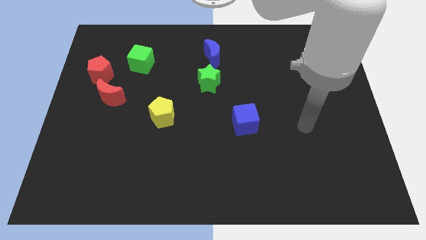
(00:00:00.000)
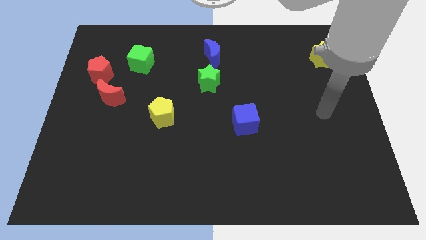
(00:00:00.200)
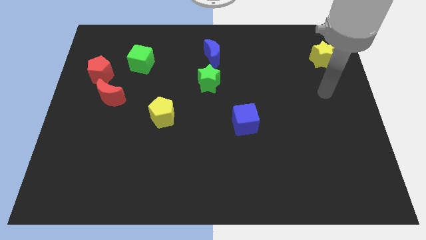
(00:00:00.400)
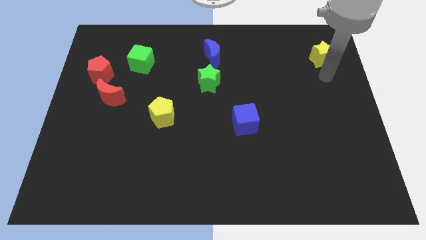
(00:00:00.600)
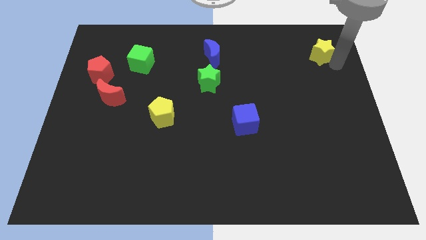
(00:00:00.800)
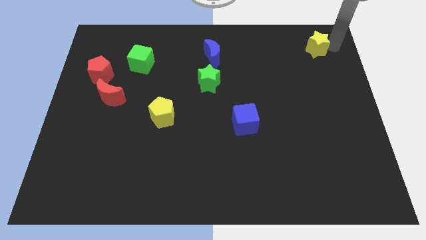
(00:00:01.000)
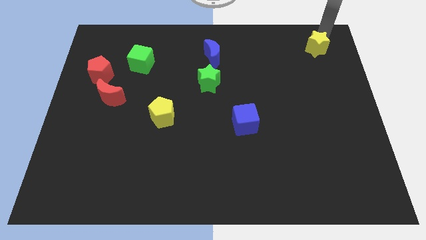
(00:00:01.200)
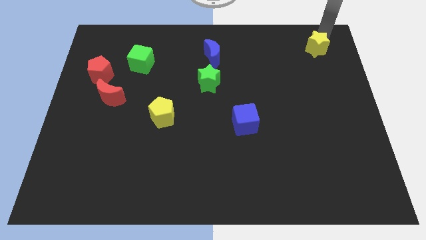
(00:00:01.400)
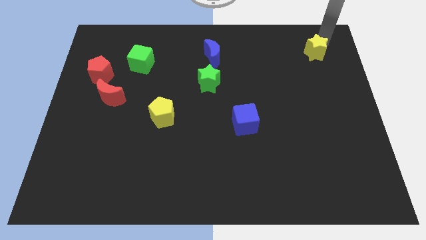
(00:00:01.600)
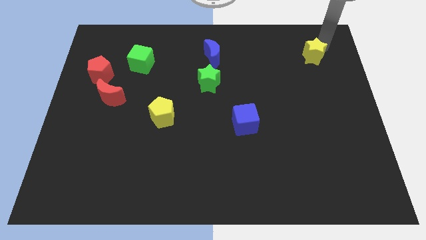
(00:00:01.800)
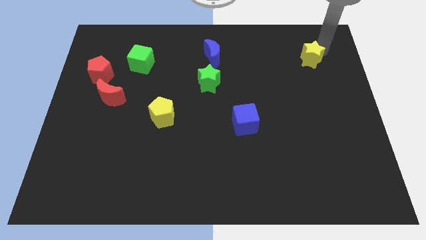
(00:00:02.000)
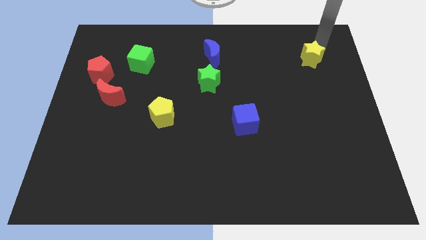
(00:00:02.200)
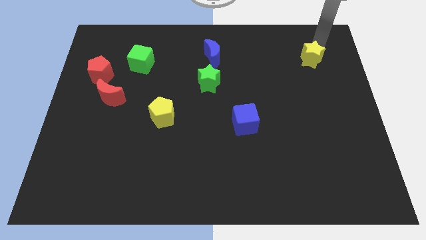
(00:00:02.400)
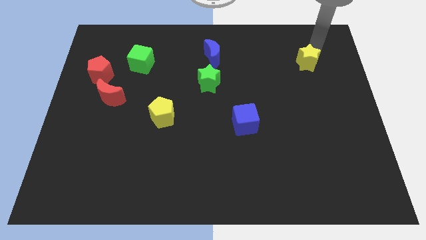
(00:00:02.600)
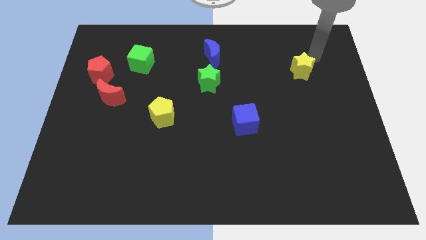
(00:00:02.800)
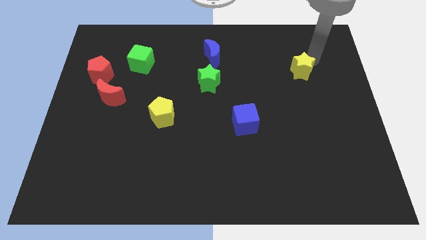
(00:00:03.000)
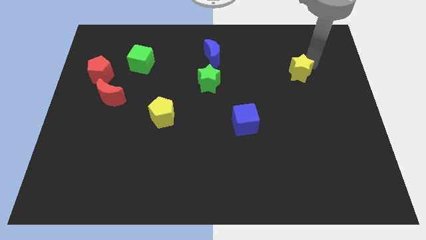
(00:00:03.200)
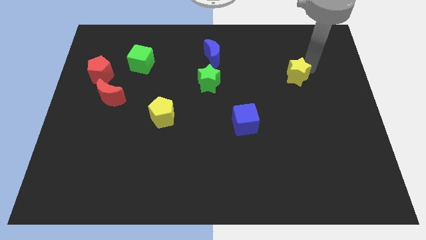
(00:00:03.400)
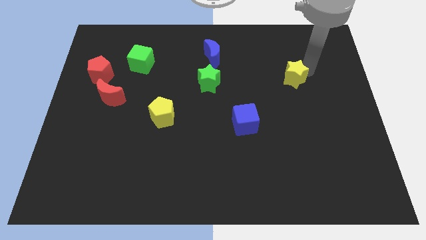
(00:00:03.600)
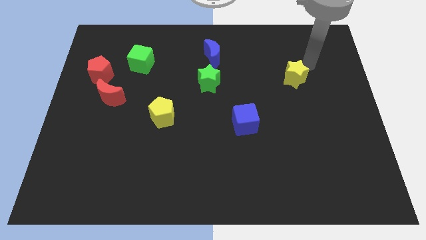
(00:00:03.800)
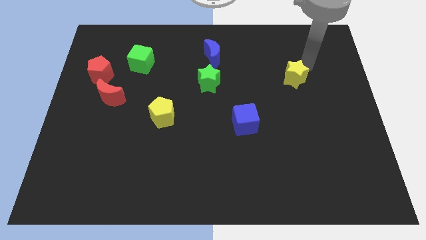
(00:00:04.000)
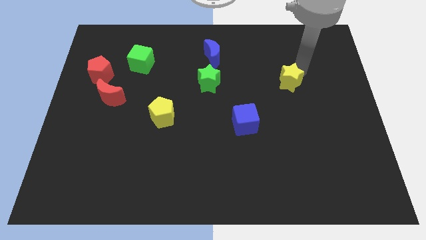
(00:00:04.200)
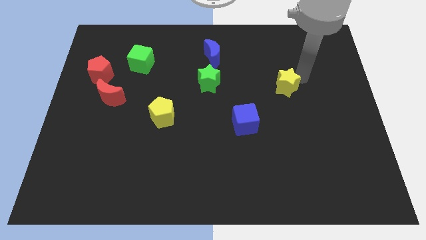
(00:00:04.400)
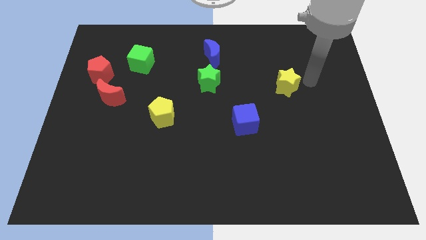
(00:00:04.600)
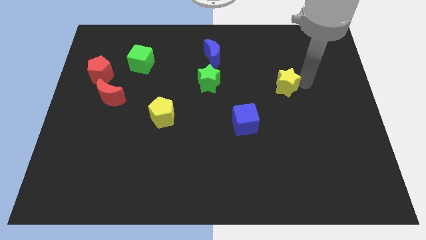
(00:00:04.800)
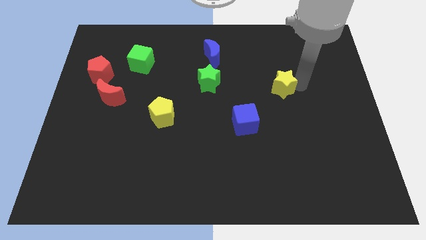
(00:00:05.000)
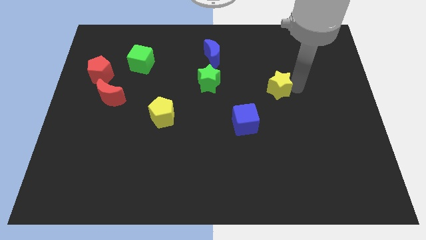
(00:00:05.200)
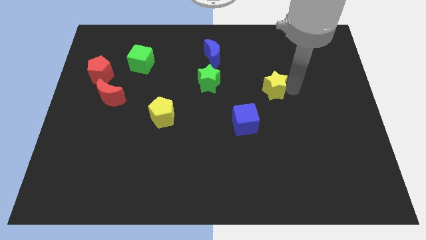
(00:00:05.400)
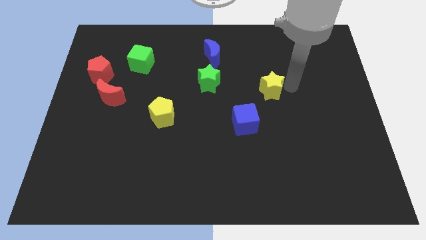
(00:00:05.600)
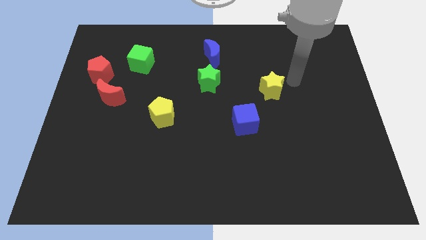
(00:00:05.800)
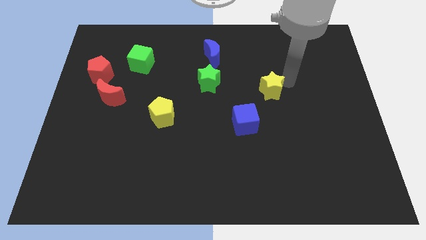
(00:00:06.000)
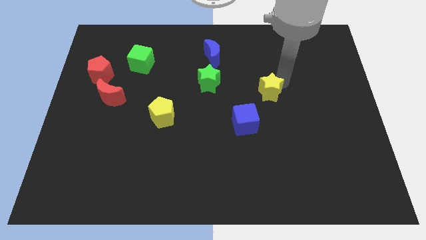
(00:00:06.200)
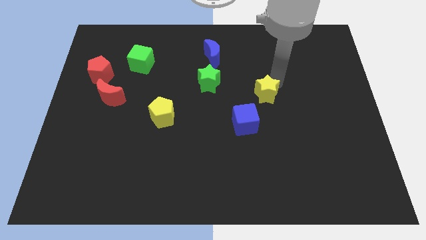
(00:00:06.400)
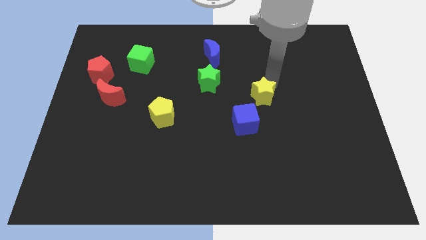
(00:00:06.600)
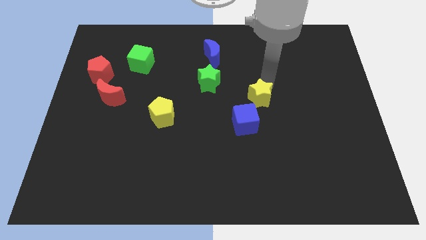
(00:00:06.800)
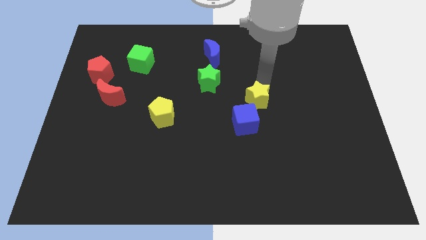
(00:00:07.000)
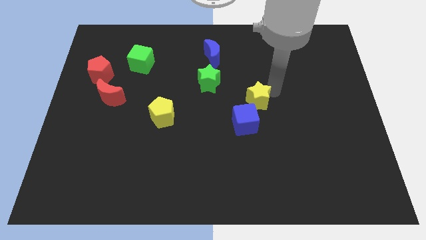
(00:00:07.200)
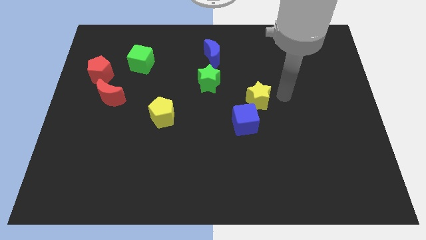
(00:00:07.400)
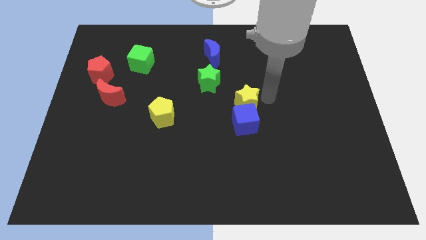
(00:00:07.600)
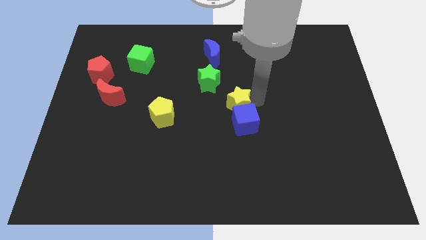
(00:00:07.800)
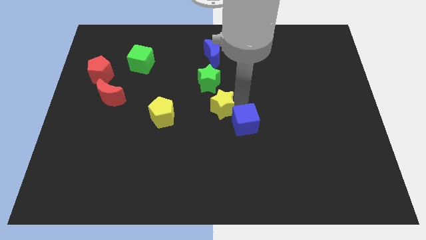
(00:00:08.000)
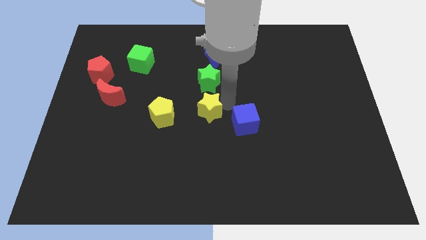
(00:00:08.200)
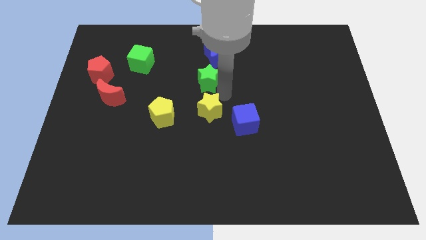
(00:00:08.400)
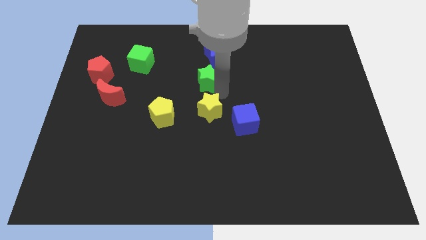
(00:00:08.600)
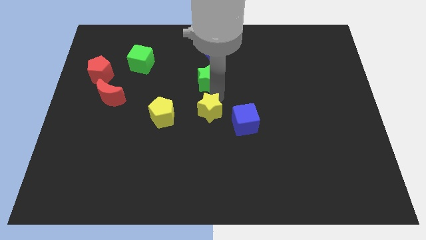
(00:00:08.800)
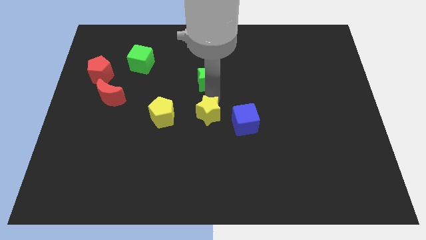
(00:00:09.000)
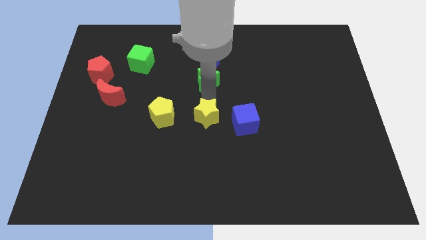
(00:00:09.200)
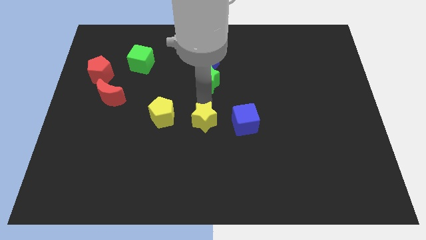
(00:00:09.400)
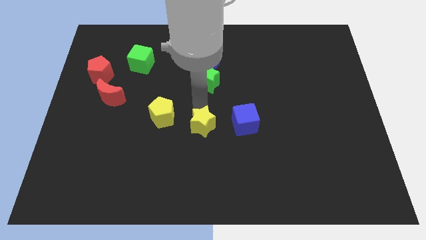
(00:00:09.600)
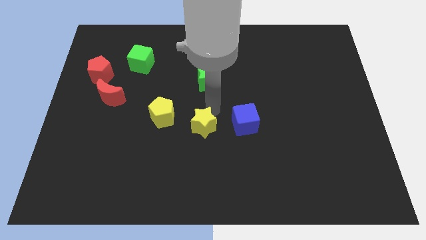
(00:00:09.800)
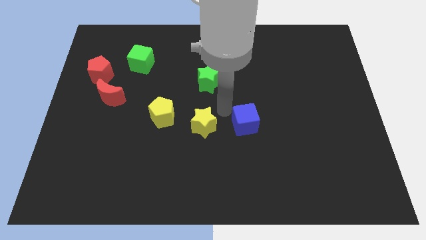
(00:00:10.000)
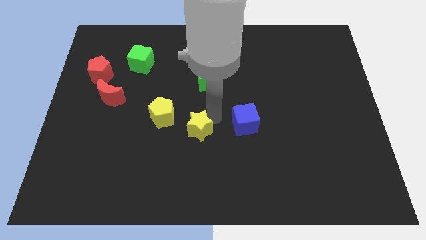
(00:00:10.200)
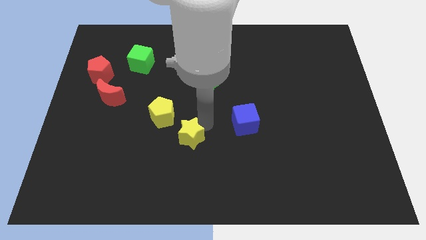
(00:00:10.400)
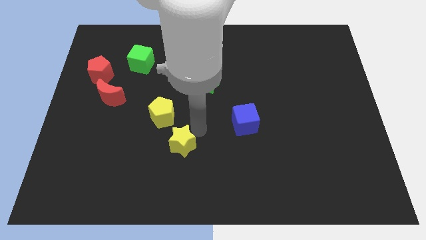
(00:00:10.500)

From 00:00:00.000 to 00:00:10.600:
move the yellow star to the bottom of the yellow pentagon

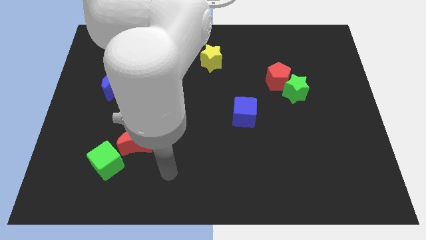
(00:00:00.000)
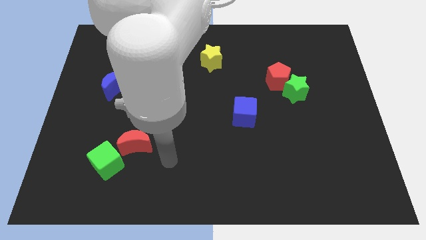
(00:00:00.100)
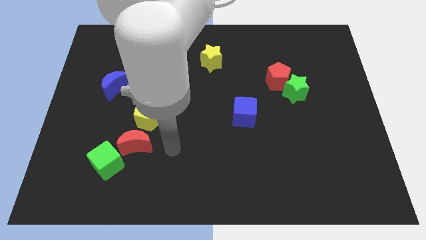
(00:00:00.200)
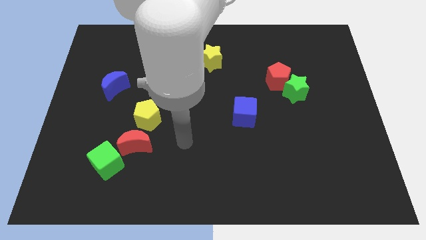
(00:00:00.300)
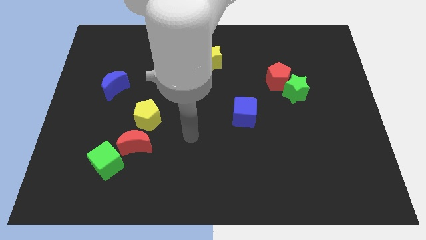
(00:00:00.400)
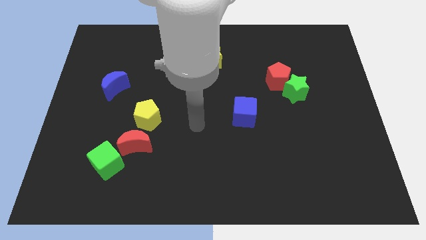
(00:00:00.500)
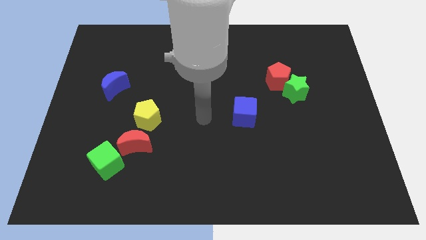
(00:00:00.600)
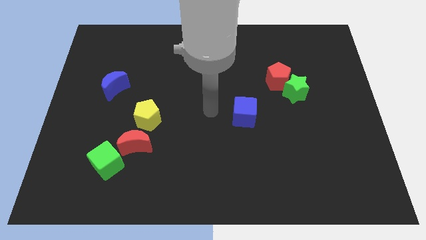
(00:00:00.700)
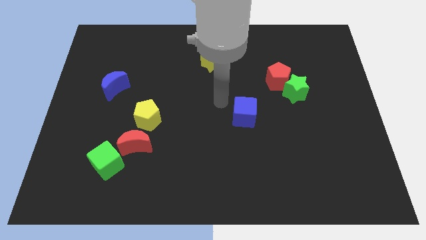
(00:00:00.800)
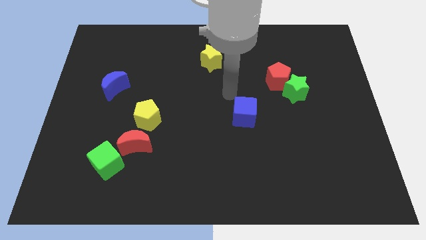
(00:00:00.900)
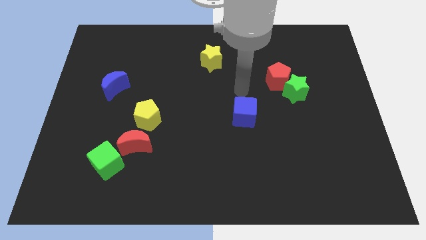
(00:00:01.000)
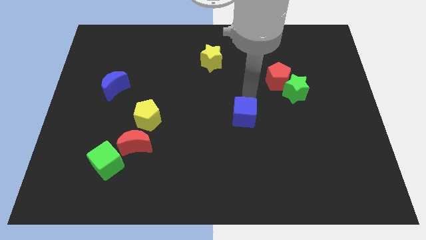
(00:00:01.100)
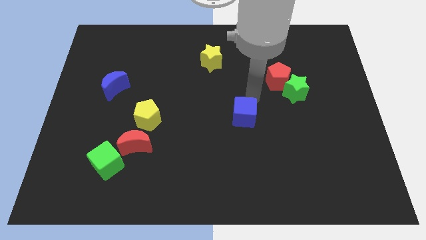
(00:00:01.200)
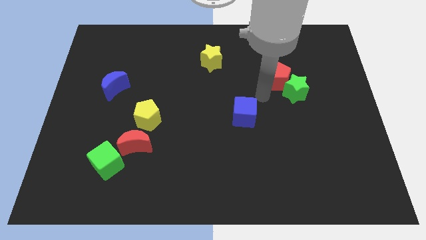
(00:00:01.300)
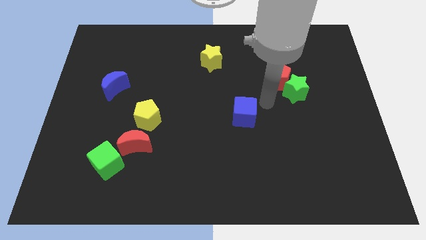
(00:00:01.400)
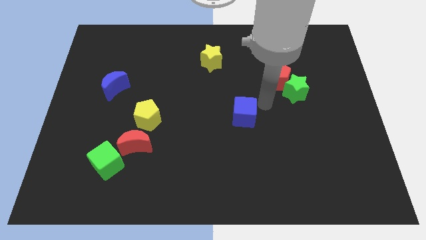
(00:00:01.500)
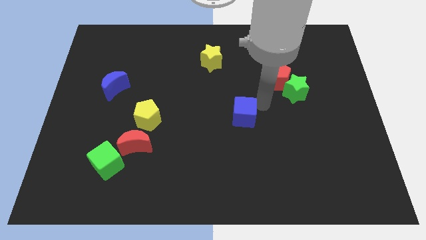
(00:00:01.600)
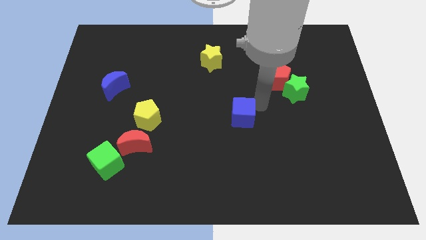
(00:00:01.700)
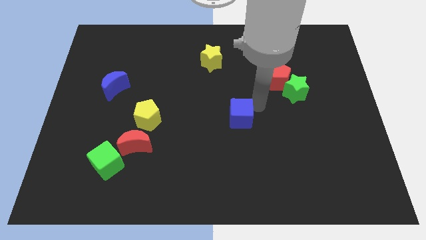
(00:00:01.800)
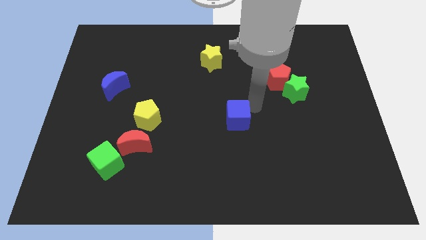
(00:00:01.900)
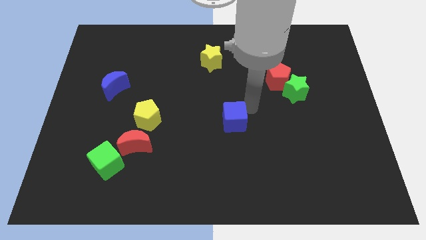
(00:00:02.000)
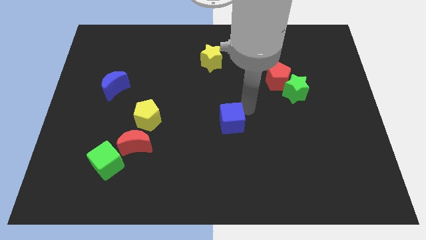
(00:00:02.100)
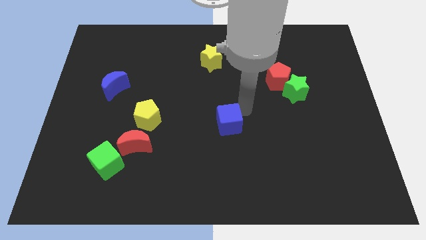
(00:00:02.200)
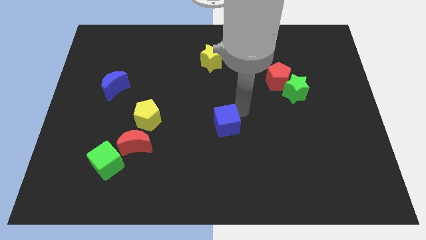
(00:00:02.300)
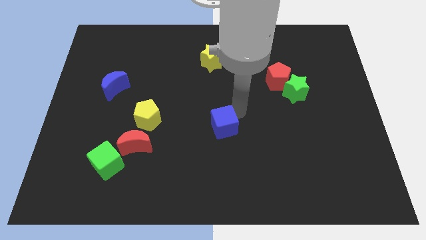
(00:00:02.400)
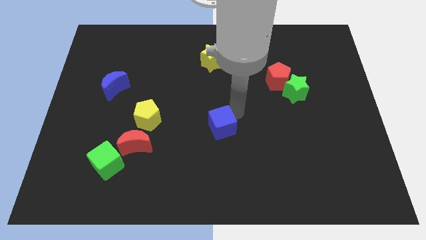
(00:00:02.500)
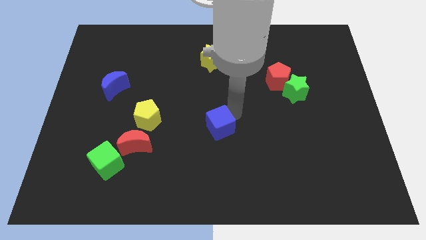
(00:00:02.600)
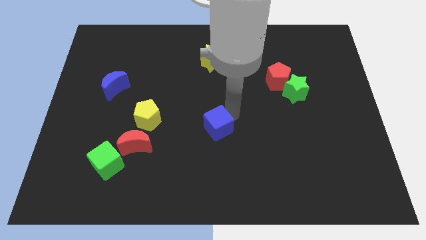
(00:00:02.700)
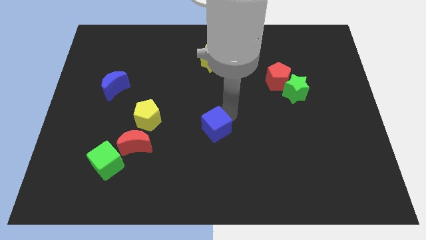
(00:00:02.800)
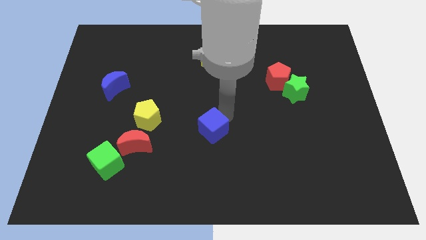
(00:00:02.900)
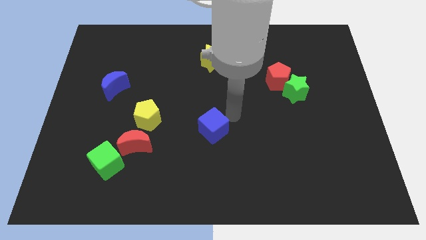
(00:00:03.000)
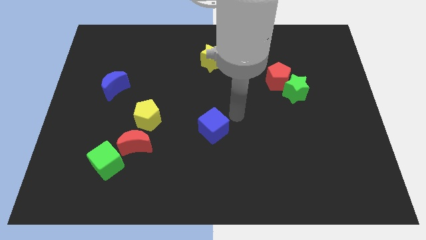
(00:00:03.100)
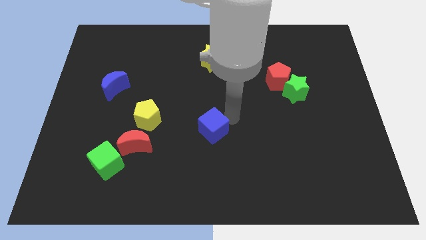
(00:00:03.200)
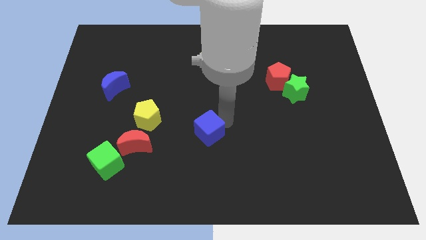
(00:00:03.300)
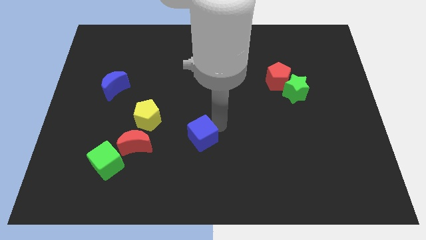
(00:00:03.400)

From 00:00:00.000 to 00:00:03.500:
move the blue cube just right of the red moon
